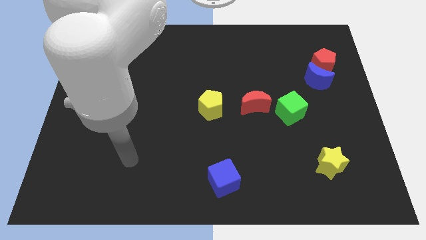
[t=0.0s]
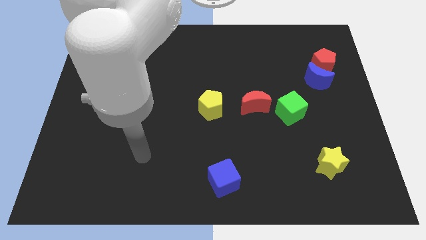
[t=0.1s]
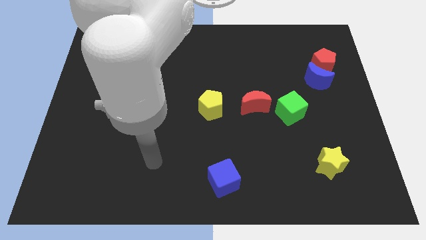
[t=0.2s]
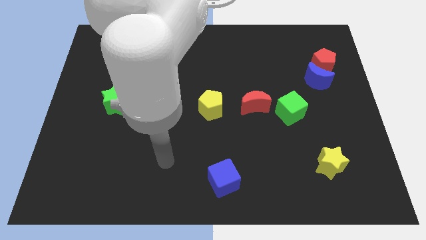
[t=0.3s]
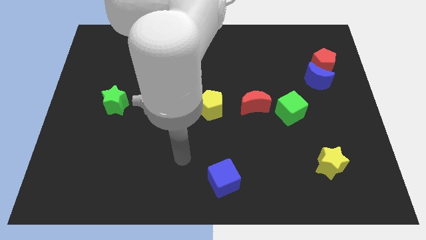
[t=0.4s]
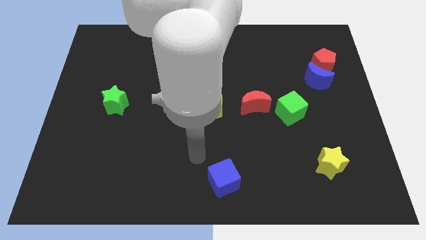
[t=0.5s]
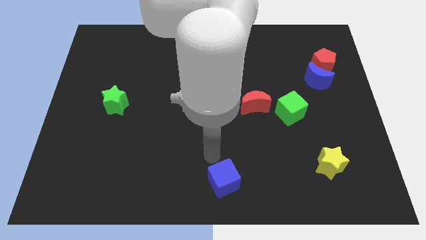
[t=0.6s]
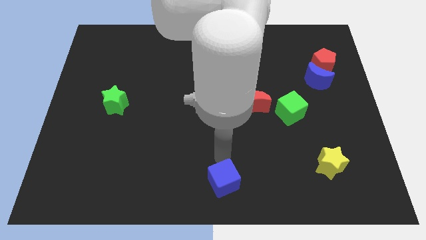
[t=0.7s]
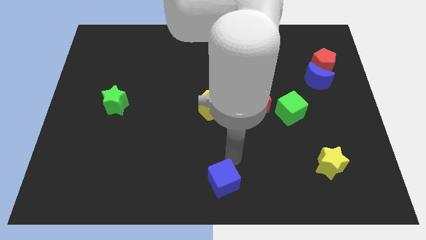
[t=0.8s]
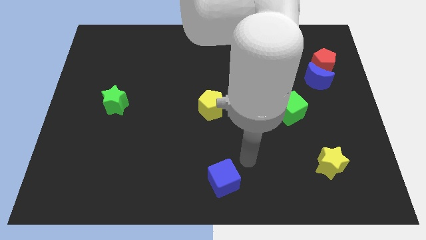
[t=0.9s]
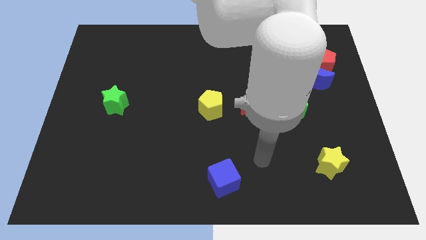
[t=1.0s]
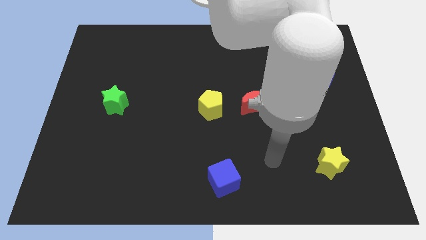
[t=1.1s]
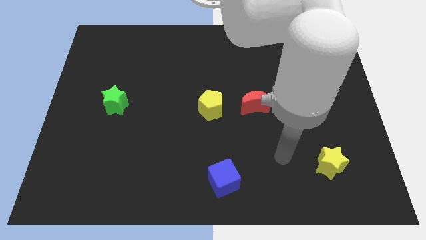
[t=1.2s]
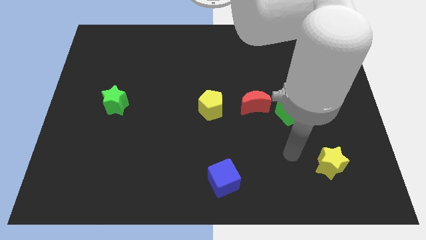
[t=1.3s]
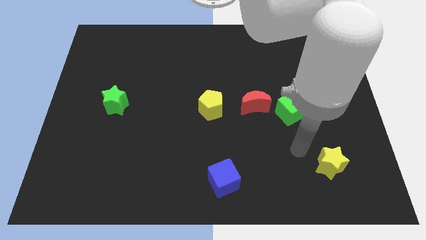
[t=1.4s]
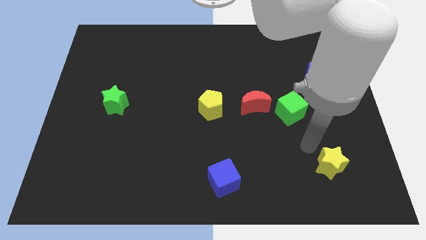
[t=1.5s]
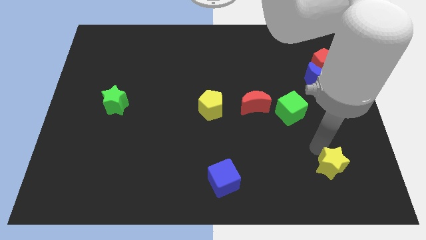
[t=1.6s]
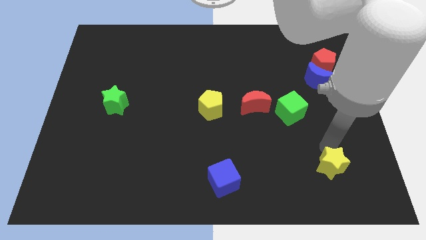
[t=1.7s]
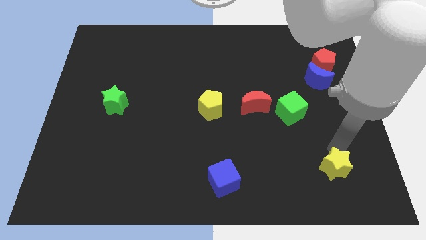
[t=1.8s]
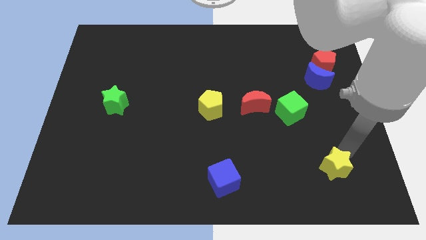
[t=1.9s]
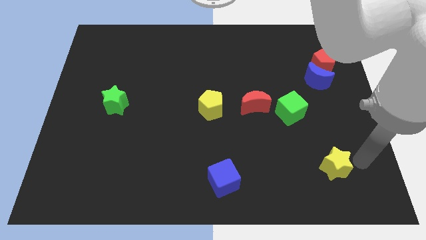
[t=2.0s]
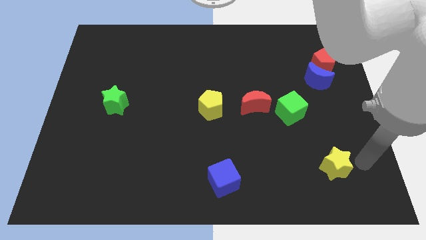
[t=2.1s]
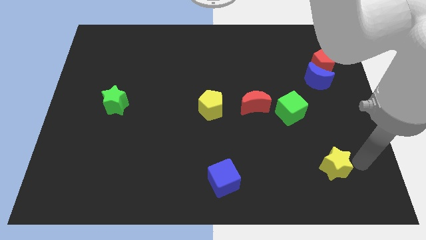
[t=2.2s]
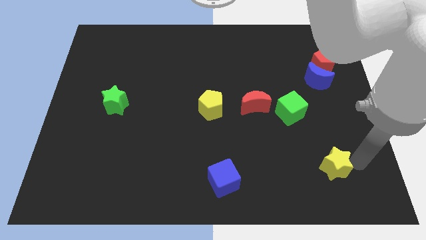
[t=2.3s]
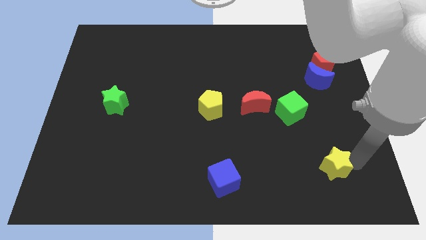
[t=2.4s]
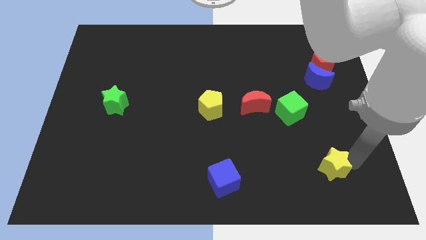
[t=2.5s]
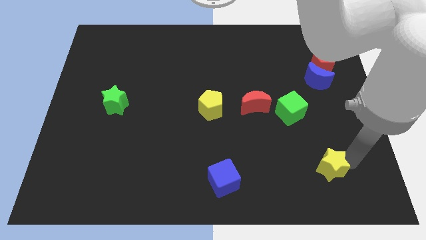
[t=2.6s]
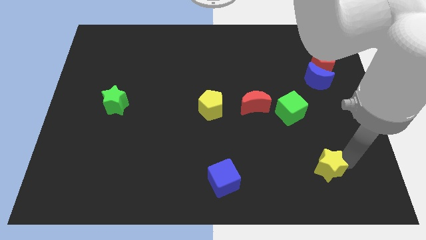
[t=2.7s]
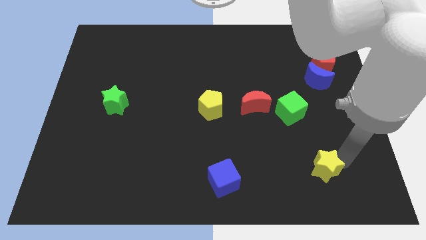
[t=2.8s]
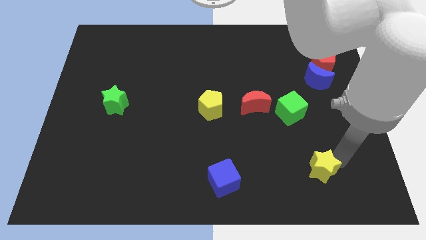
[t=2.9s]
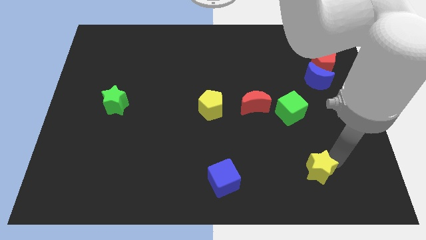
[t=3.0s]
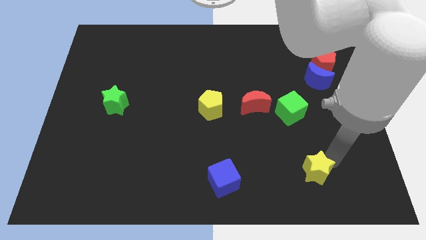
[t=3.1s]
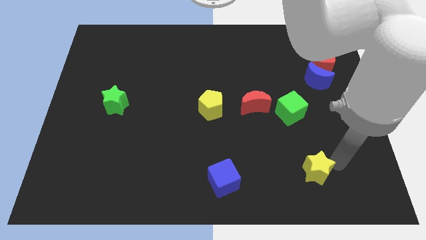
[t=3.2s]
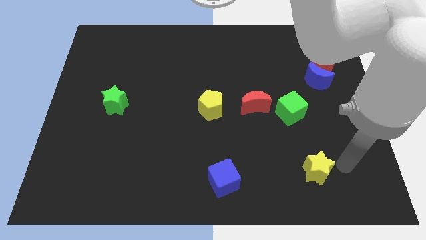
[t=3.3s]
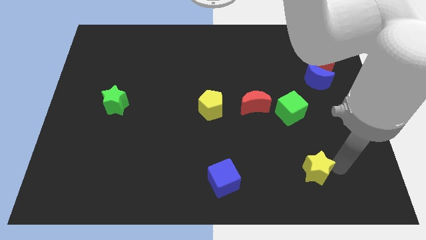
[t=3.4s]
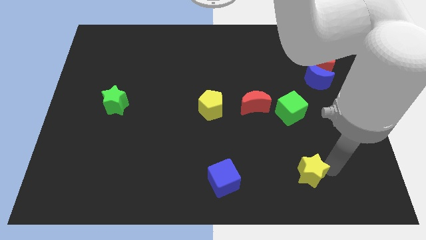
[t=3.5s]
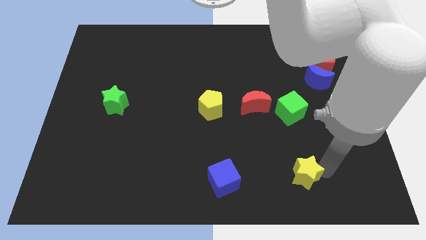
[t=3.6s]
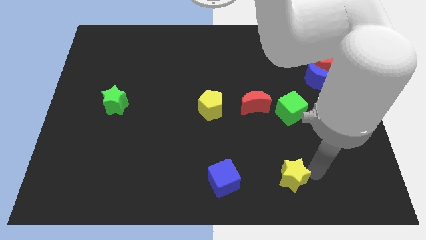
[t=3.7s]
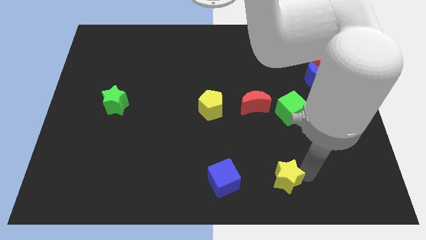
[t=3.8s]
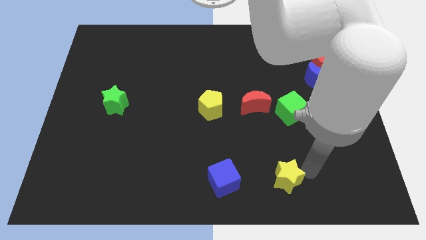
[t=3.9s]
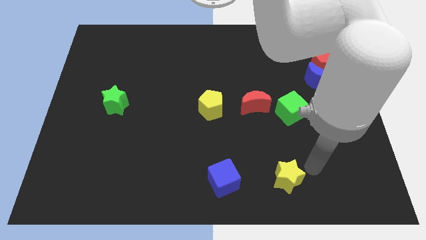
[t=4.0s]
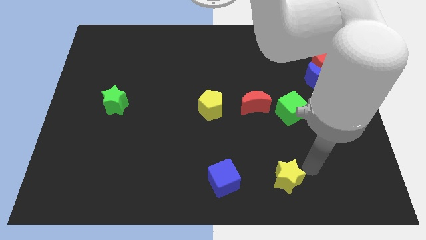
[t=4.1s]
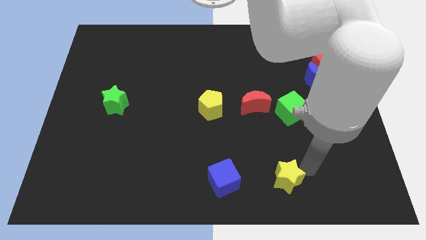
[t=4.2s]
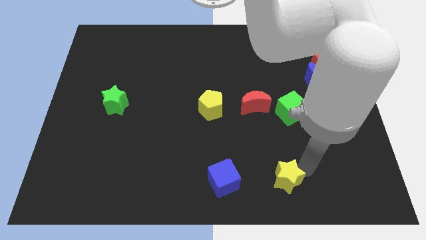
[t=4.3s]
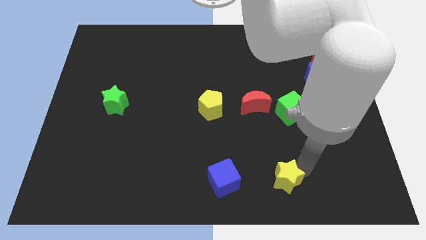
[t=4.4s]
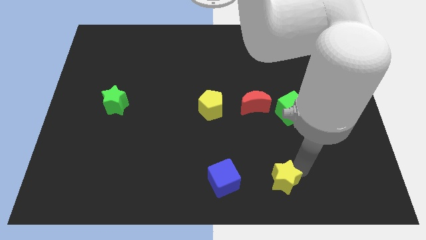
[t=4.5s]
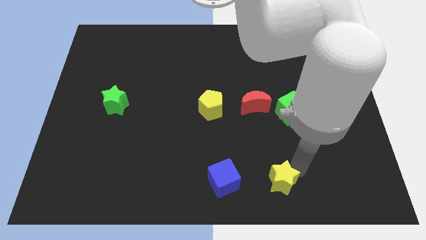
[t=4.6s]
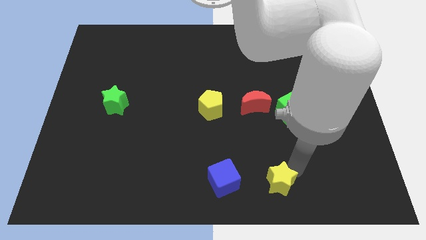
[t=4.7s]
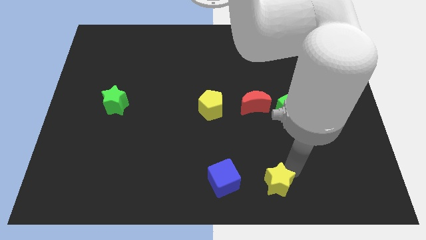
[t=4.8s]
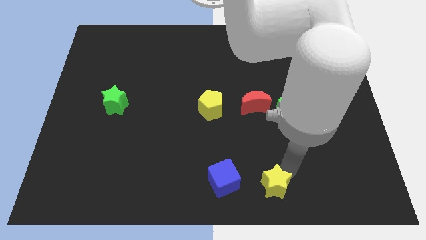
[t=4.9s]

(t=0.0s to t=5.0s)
move the yellow star to the bottom side

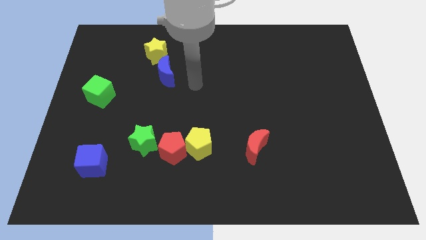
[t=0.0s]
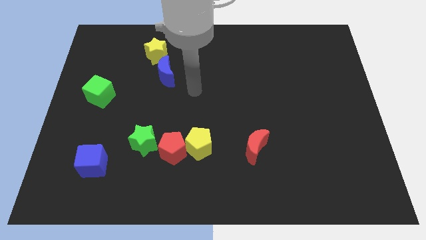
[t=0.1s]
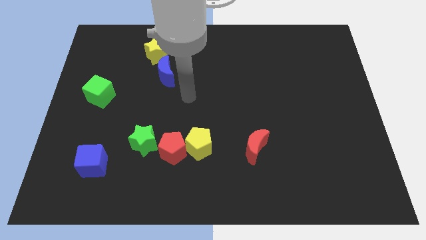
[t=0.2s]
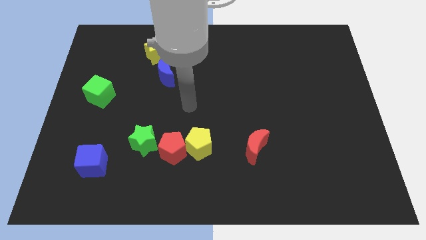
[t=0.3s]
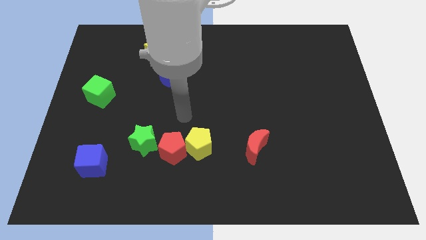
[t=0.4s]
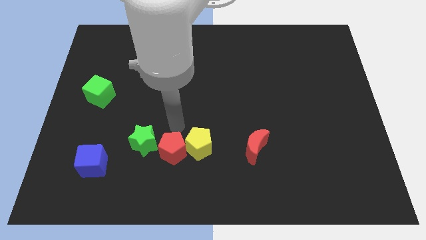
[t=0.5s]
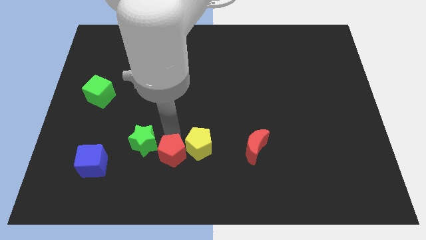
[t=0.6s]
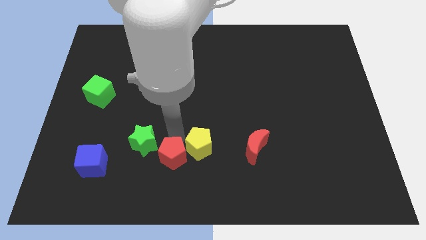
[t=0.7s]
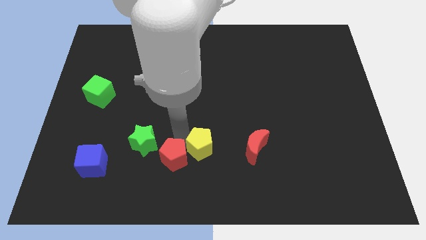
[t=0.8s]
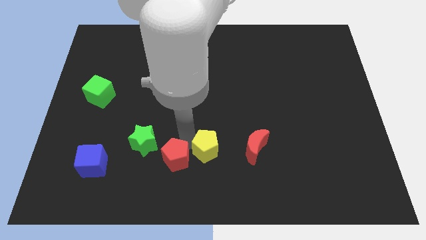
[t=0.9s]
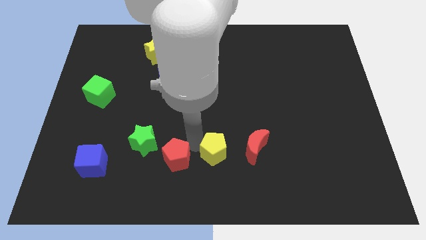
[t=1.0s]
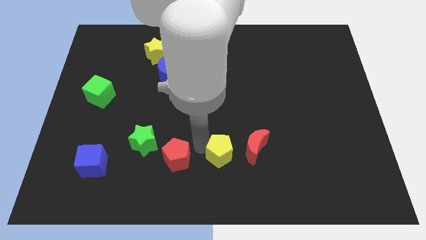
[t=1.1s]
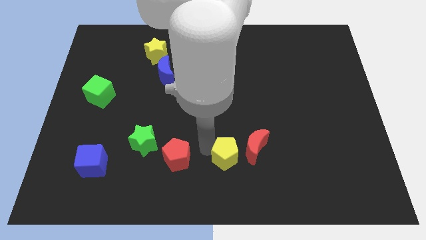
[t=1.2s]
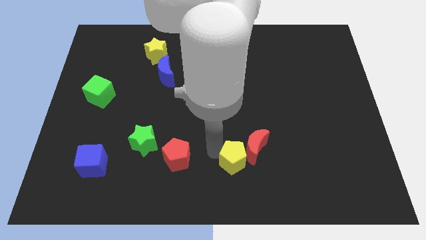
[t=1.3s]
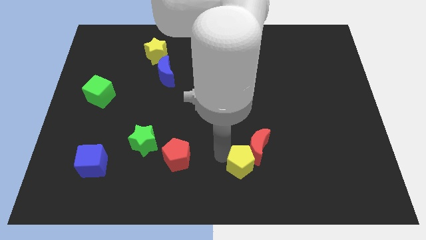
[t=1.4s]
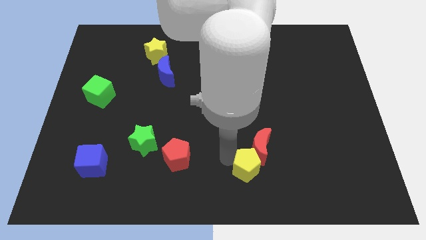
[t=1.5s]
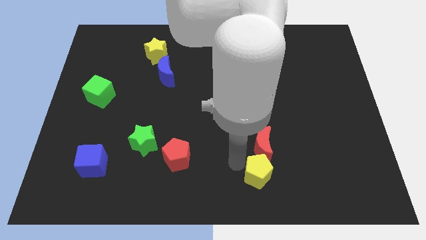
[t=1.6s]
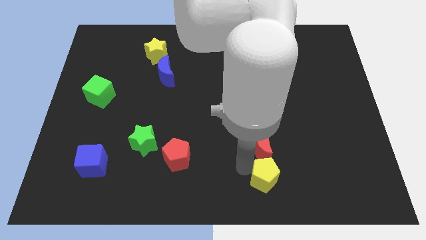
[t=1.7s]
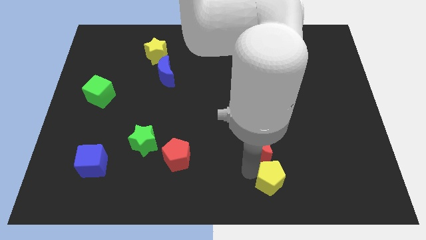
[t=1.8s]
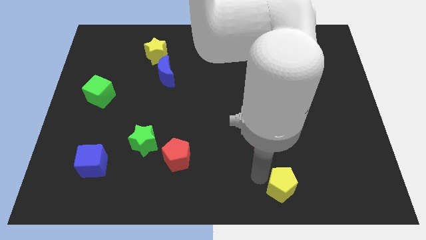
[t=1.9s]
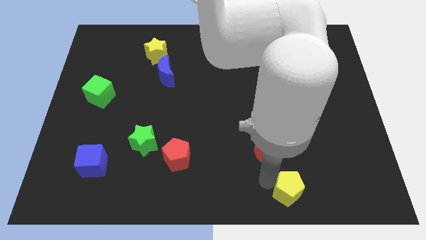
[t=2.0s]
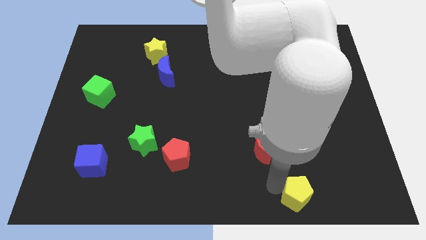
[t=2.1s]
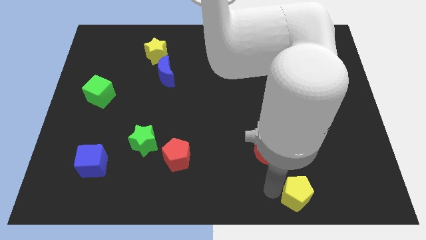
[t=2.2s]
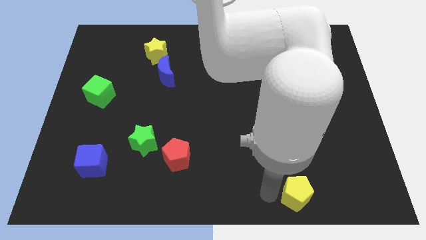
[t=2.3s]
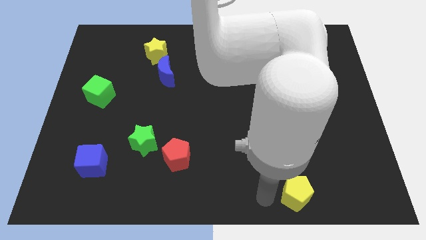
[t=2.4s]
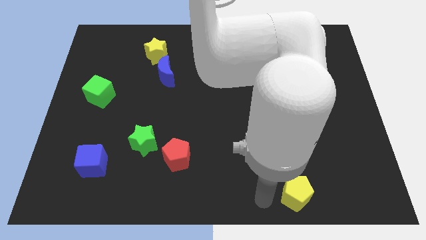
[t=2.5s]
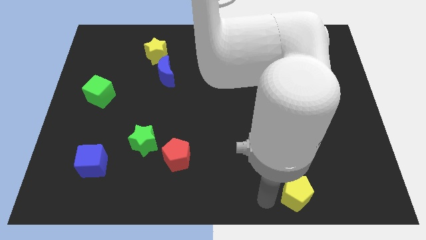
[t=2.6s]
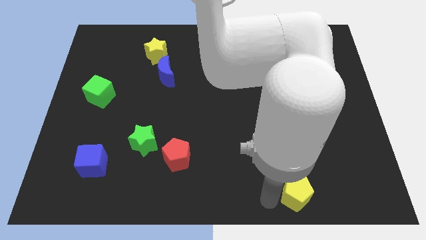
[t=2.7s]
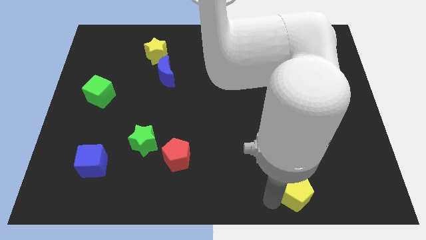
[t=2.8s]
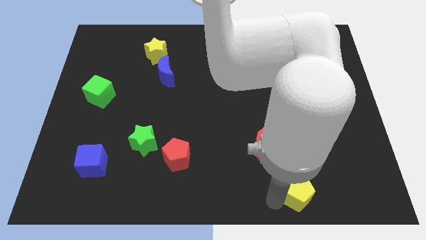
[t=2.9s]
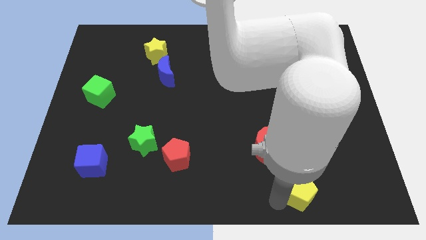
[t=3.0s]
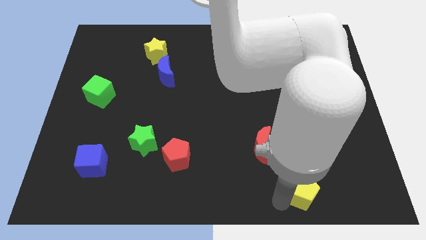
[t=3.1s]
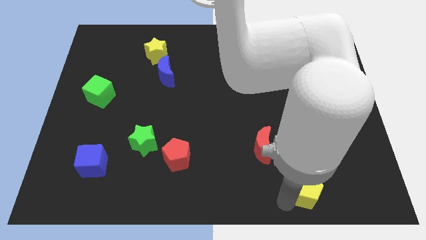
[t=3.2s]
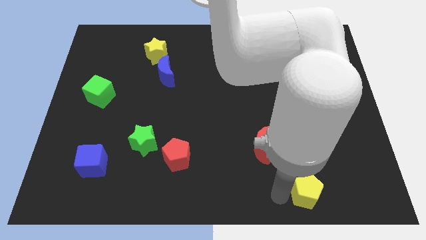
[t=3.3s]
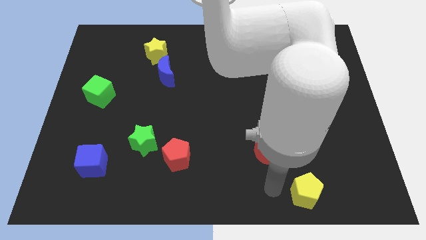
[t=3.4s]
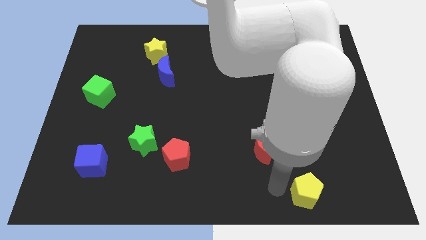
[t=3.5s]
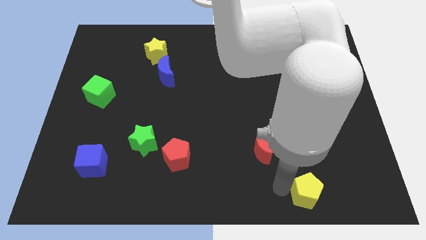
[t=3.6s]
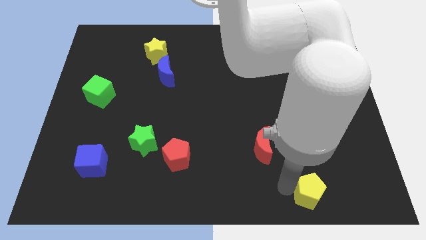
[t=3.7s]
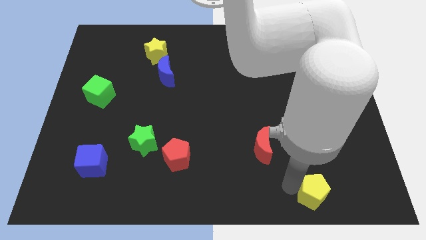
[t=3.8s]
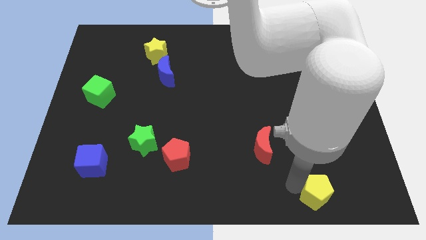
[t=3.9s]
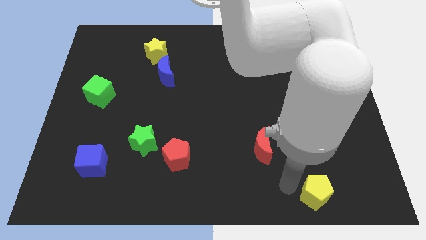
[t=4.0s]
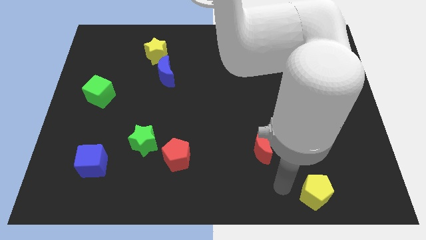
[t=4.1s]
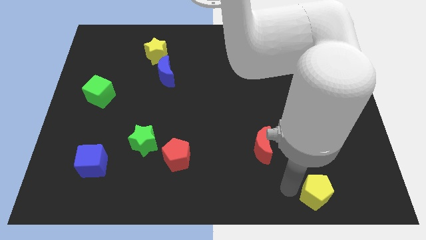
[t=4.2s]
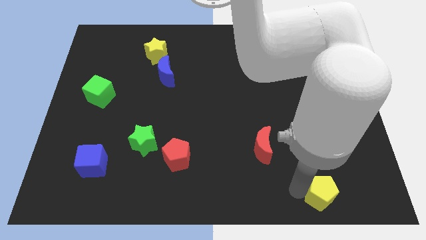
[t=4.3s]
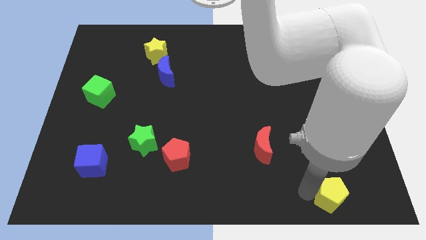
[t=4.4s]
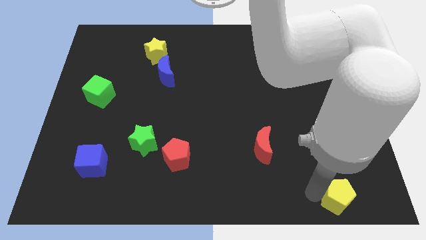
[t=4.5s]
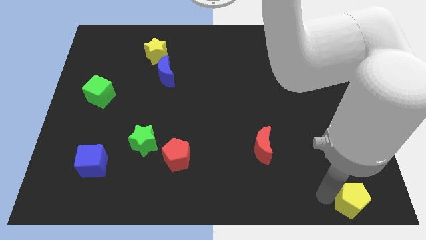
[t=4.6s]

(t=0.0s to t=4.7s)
slide the yellow pentagon to the bottom right of the board
